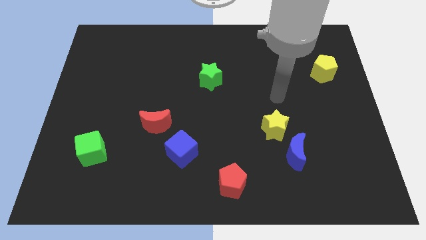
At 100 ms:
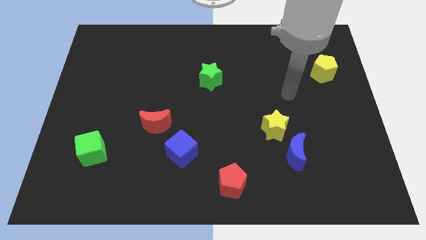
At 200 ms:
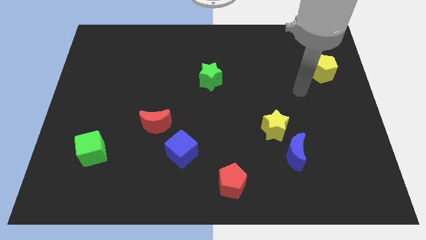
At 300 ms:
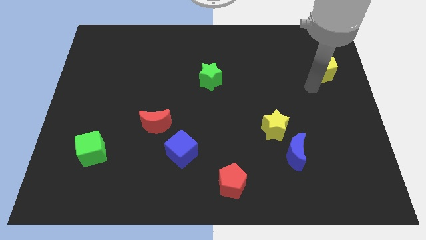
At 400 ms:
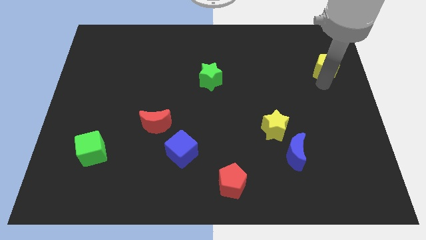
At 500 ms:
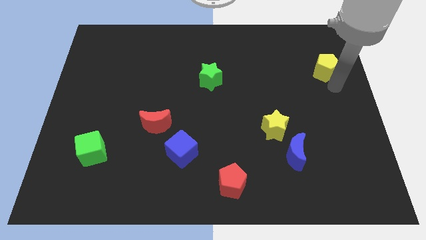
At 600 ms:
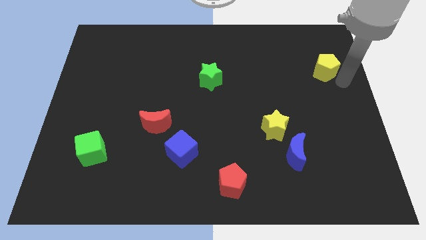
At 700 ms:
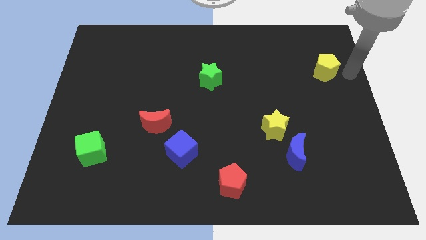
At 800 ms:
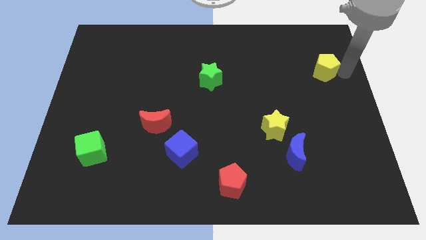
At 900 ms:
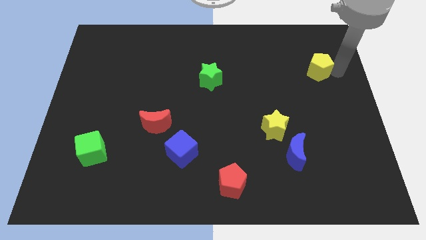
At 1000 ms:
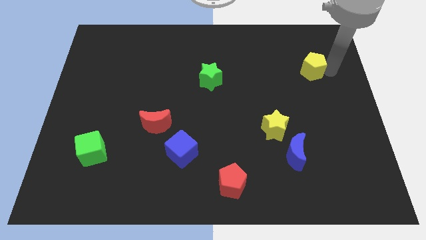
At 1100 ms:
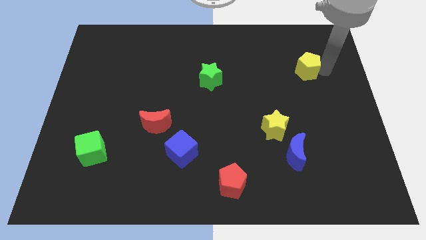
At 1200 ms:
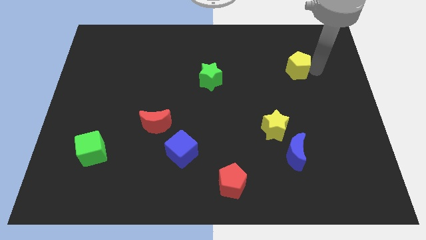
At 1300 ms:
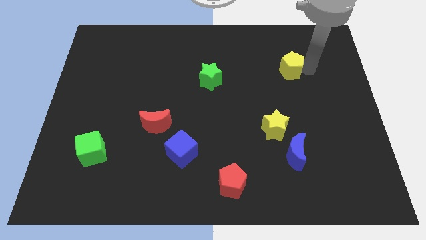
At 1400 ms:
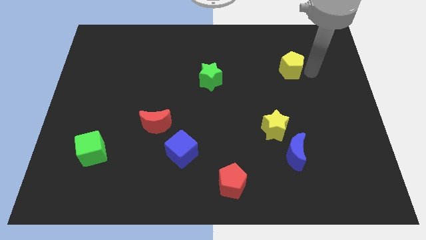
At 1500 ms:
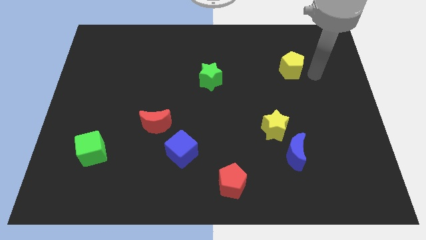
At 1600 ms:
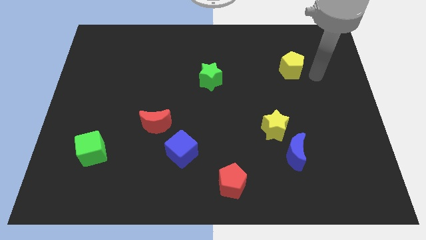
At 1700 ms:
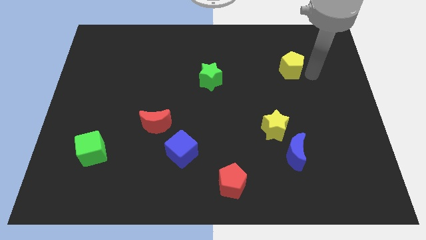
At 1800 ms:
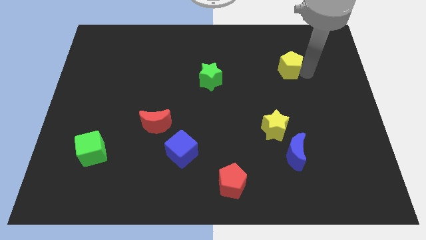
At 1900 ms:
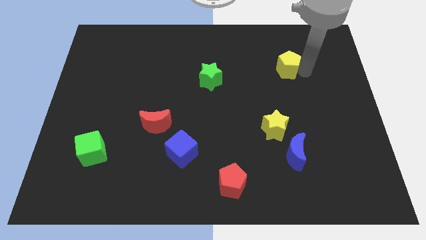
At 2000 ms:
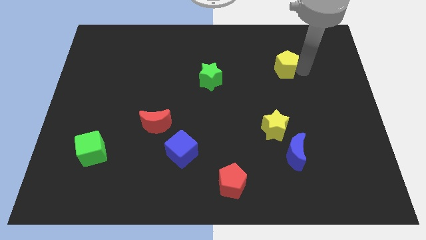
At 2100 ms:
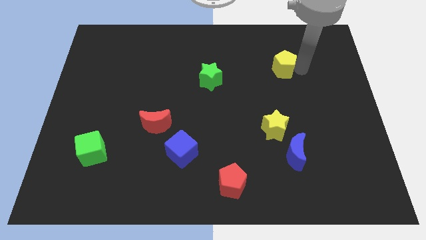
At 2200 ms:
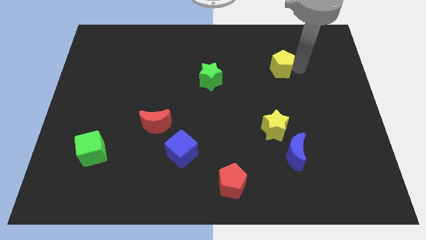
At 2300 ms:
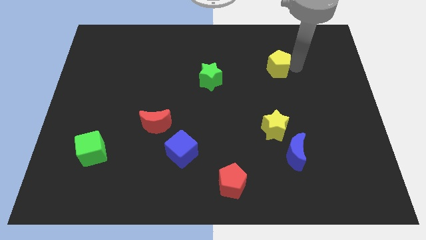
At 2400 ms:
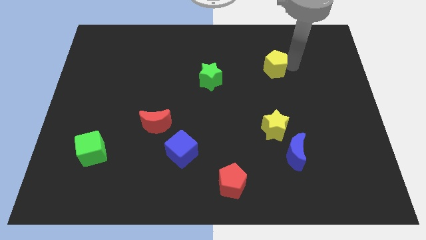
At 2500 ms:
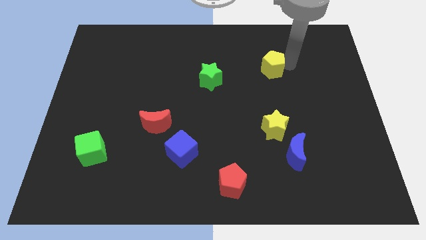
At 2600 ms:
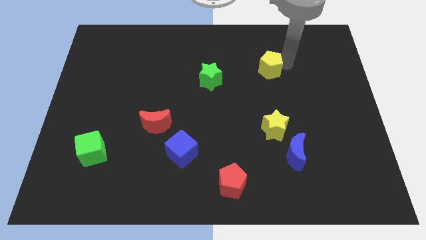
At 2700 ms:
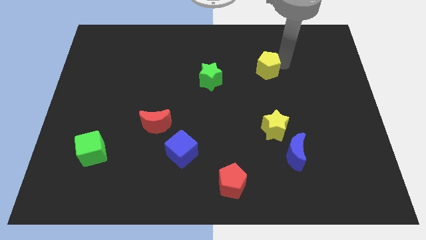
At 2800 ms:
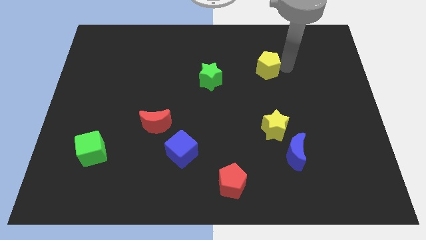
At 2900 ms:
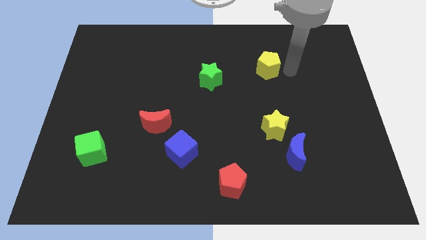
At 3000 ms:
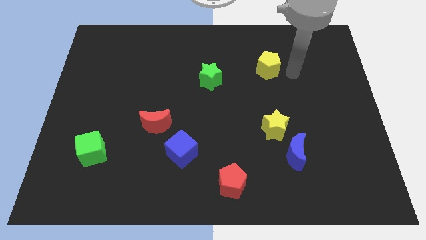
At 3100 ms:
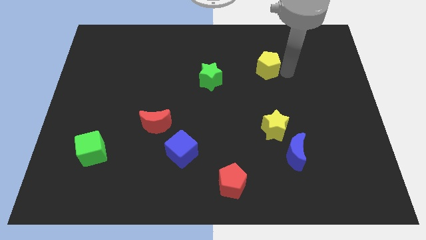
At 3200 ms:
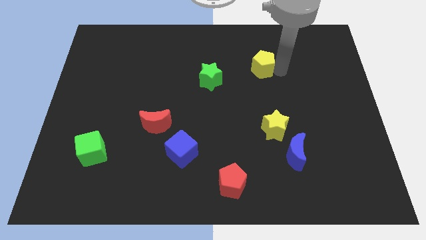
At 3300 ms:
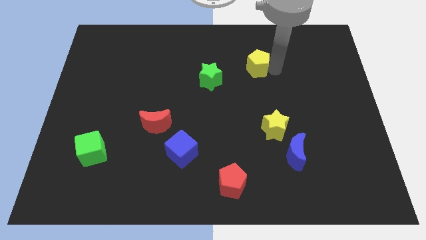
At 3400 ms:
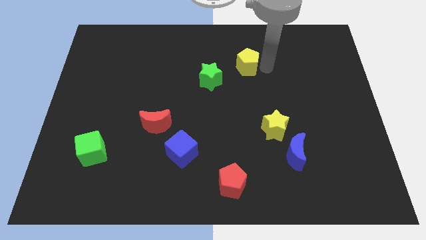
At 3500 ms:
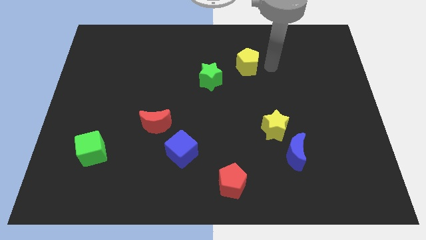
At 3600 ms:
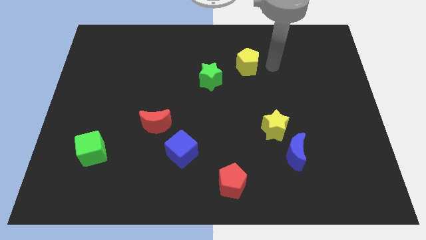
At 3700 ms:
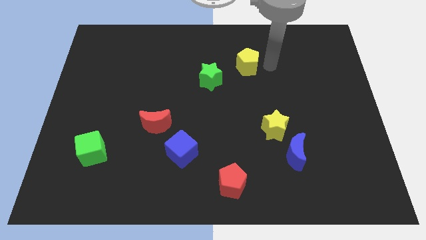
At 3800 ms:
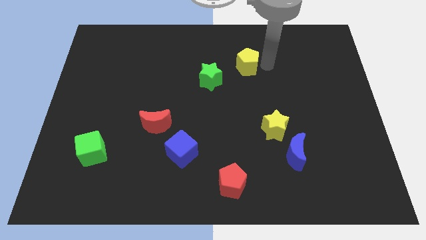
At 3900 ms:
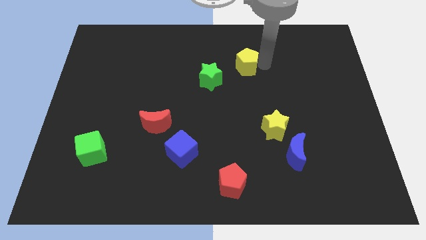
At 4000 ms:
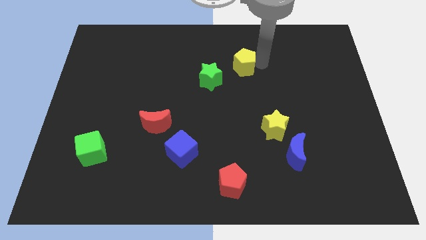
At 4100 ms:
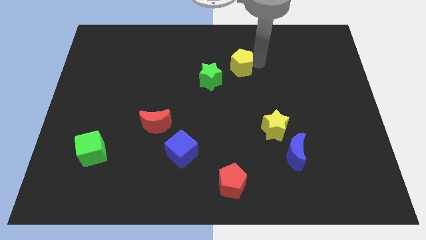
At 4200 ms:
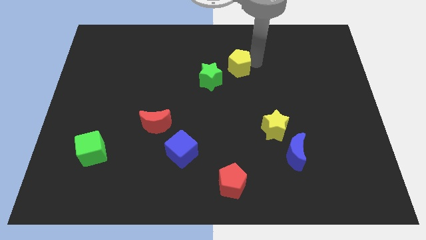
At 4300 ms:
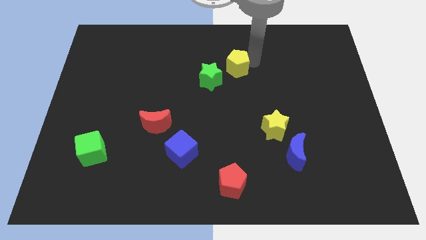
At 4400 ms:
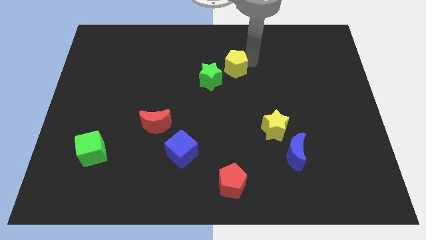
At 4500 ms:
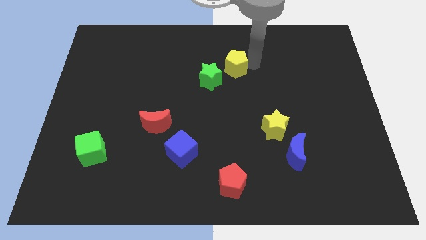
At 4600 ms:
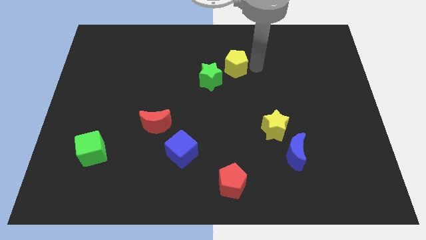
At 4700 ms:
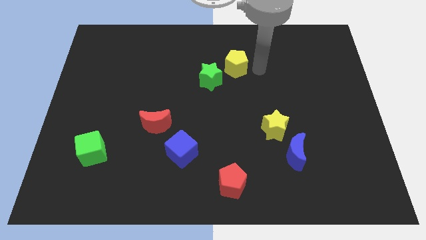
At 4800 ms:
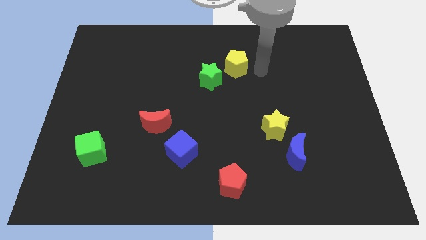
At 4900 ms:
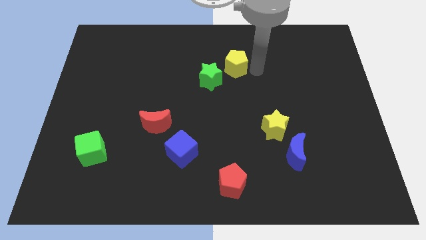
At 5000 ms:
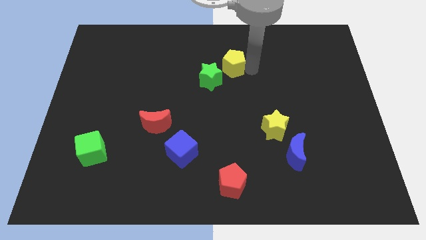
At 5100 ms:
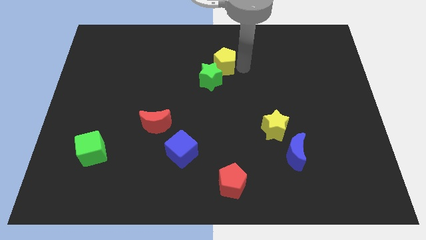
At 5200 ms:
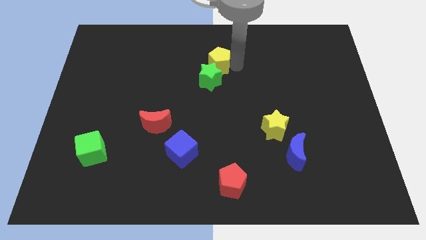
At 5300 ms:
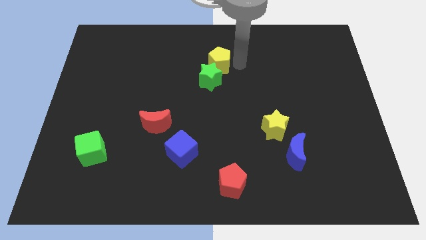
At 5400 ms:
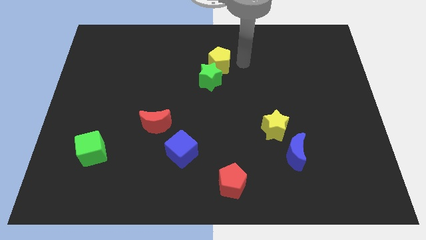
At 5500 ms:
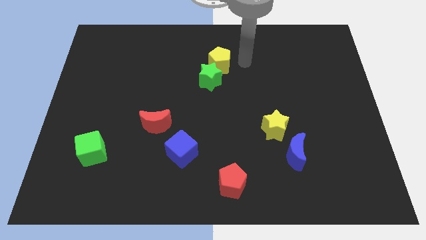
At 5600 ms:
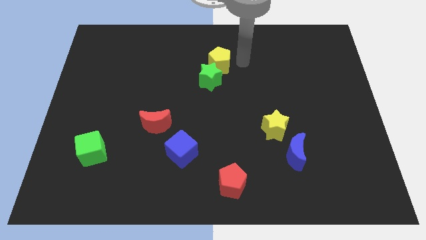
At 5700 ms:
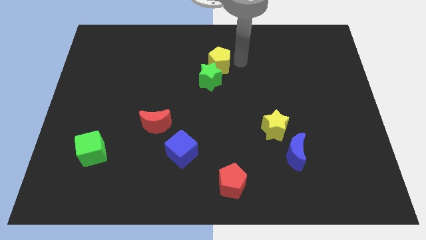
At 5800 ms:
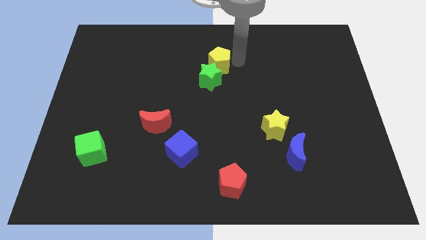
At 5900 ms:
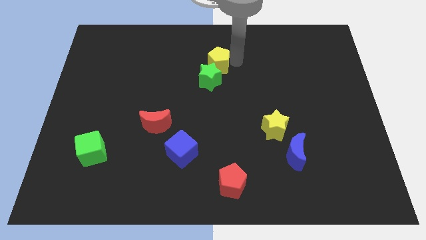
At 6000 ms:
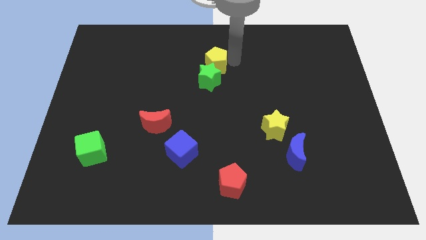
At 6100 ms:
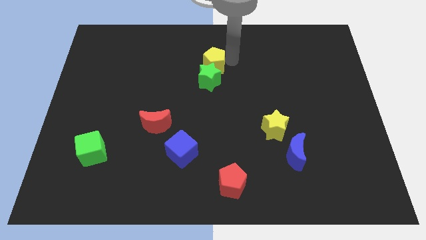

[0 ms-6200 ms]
move the yellow pentagon diagonally up and to the left of the green star

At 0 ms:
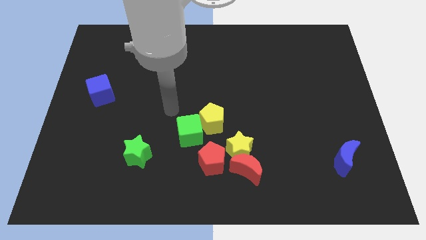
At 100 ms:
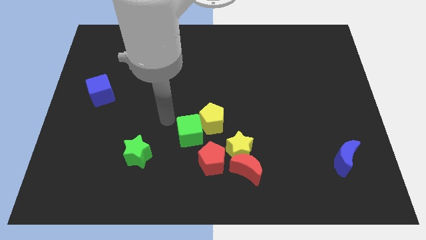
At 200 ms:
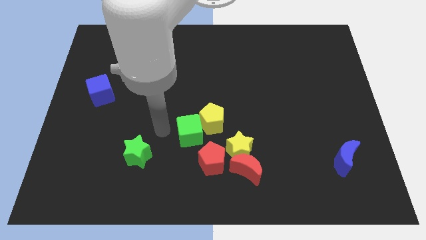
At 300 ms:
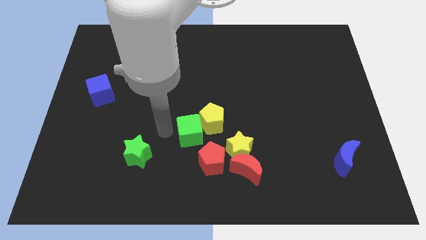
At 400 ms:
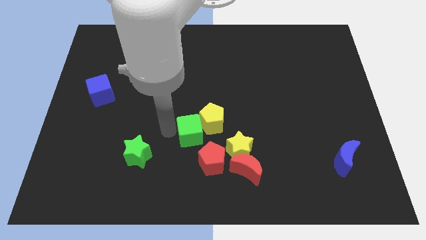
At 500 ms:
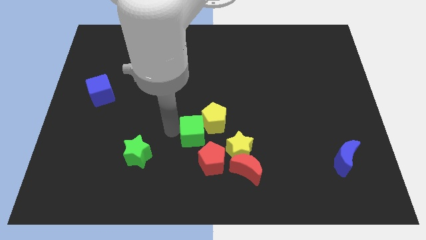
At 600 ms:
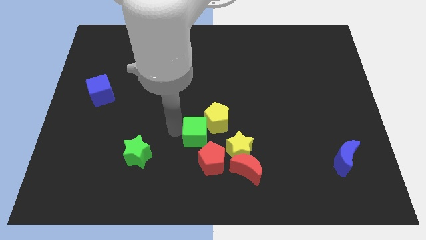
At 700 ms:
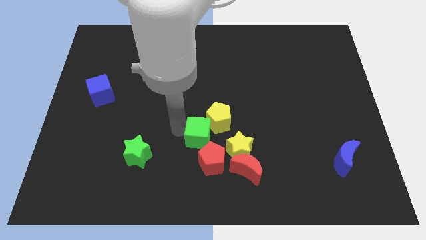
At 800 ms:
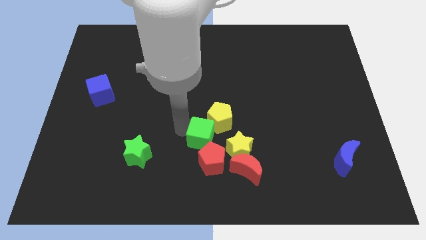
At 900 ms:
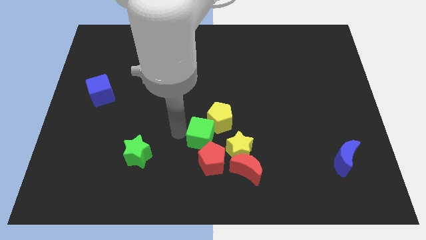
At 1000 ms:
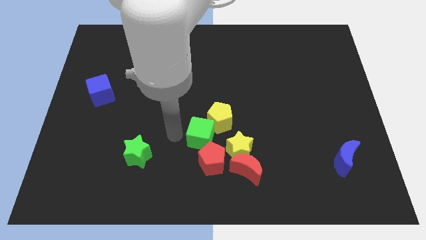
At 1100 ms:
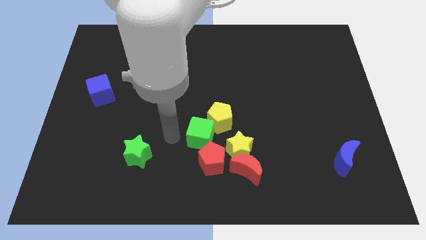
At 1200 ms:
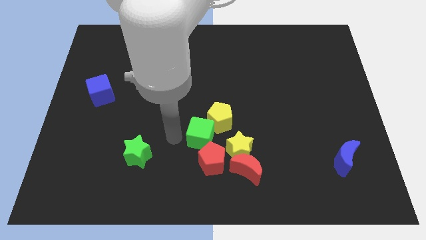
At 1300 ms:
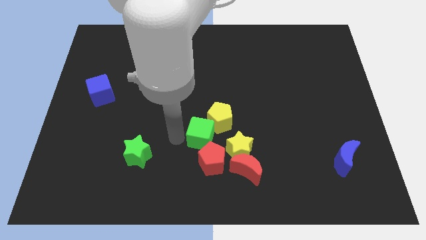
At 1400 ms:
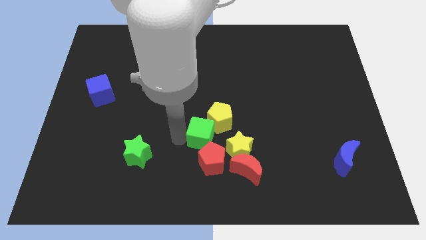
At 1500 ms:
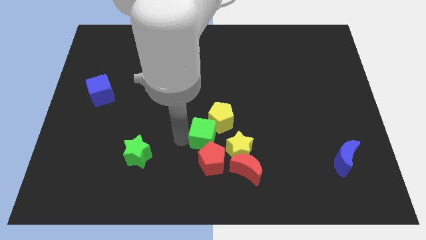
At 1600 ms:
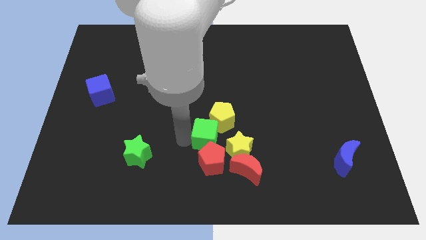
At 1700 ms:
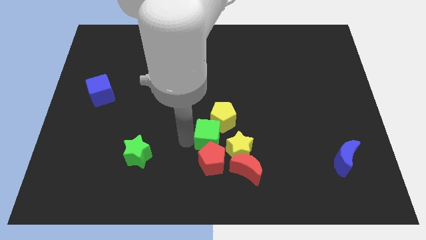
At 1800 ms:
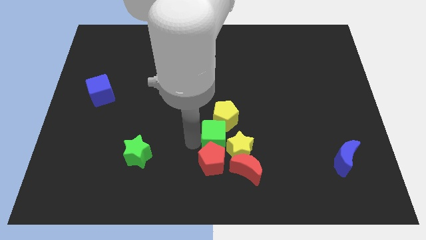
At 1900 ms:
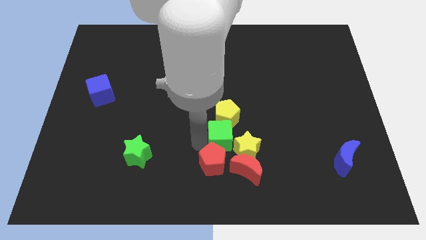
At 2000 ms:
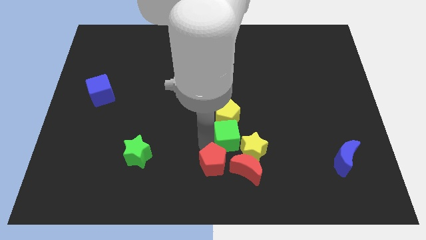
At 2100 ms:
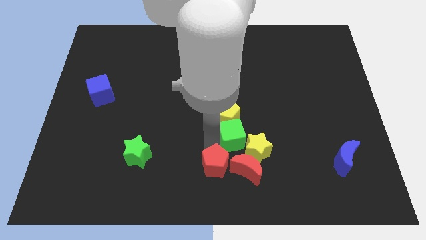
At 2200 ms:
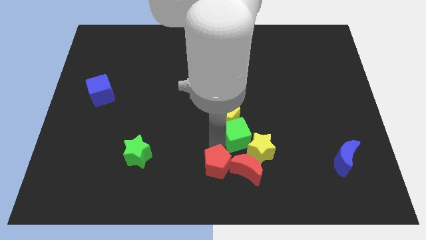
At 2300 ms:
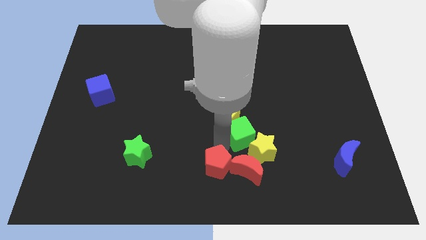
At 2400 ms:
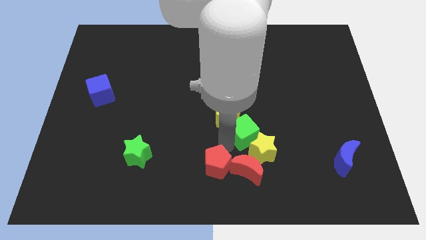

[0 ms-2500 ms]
slide the green cube to the right of the yellow pentagon
